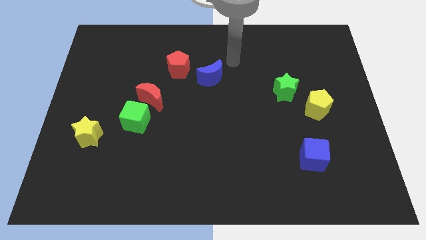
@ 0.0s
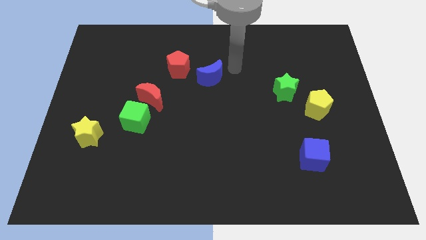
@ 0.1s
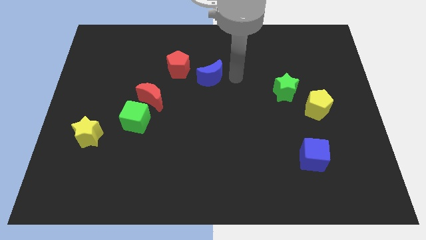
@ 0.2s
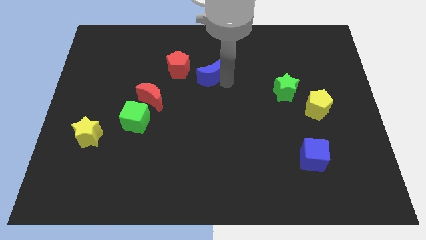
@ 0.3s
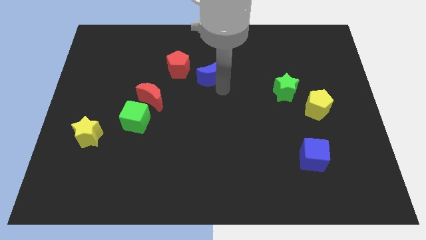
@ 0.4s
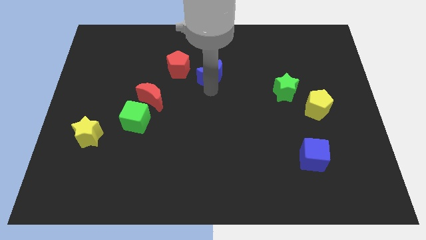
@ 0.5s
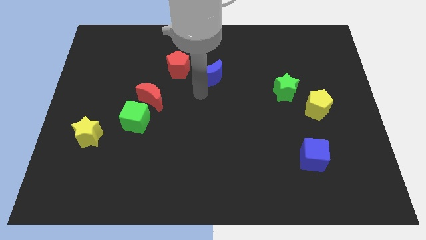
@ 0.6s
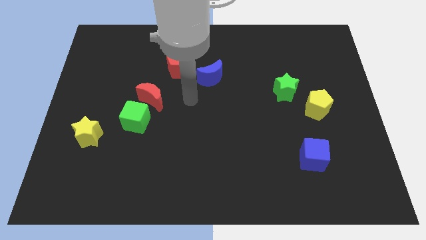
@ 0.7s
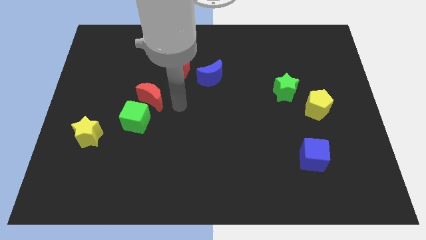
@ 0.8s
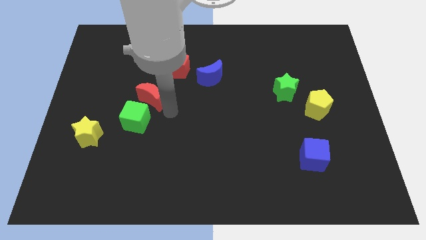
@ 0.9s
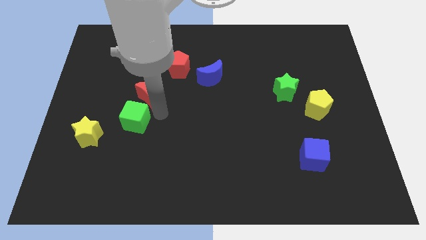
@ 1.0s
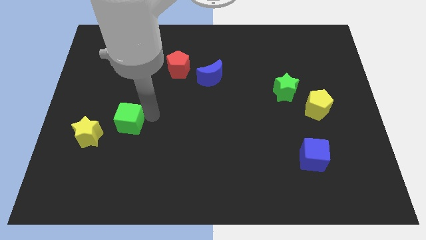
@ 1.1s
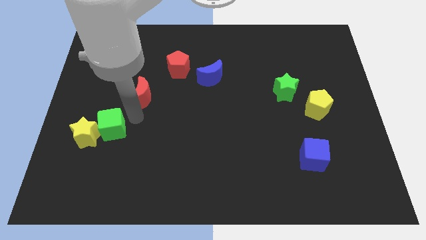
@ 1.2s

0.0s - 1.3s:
move the red moon away from the green cube

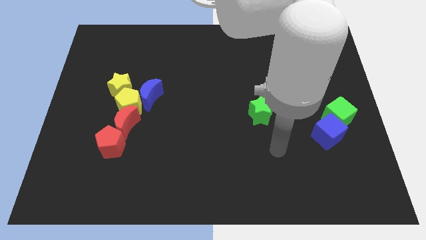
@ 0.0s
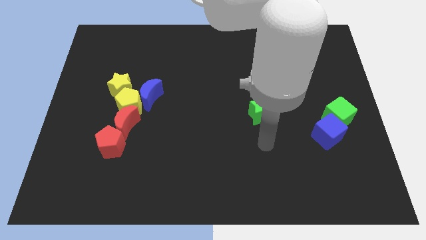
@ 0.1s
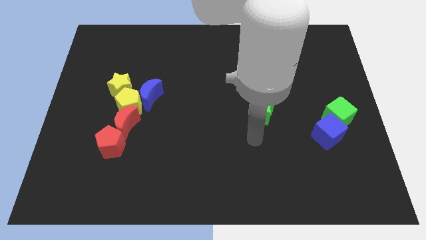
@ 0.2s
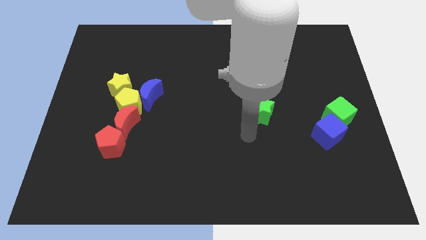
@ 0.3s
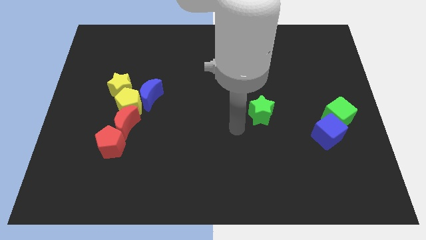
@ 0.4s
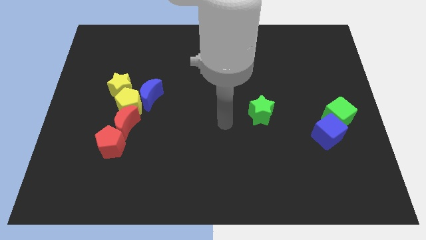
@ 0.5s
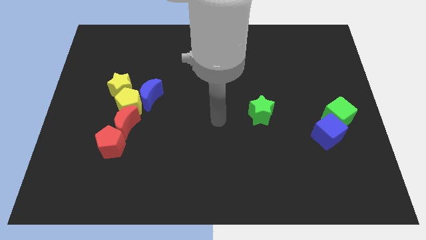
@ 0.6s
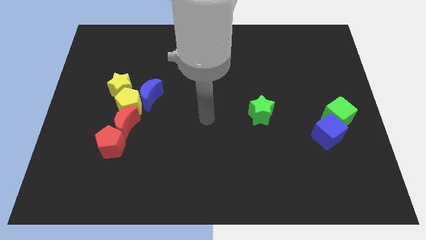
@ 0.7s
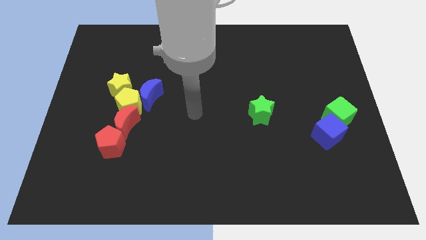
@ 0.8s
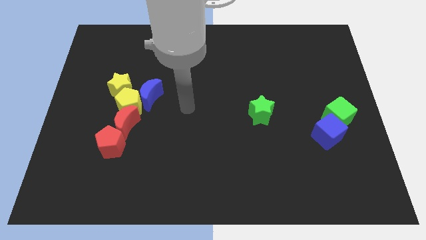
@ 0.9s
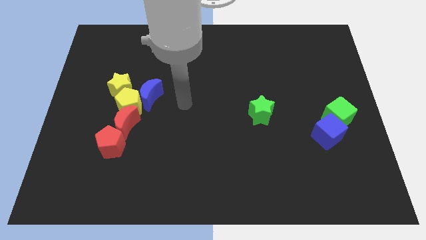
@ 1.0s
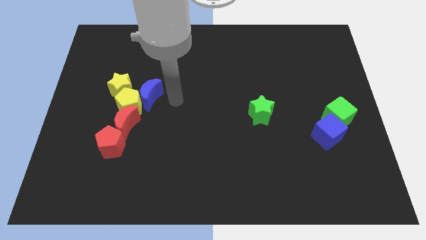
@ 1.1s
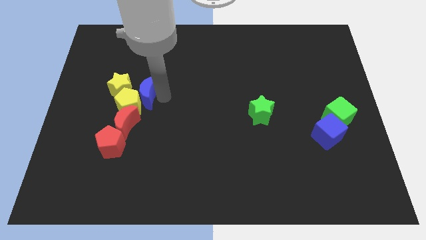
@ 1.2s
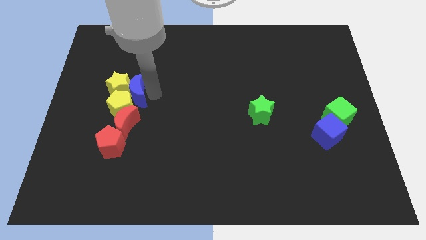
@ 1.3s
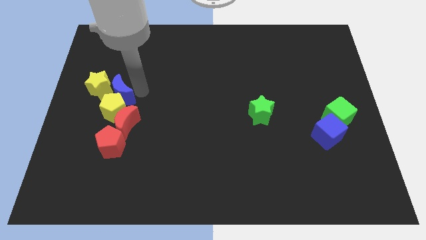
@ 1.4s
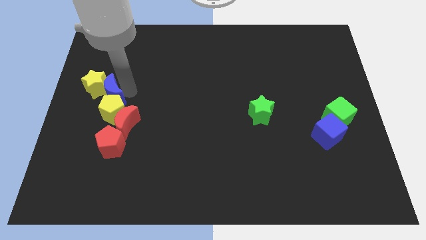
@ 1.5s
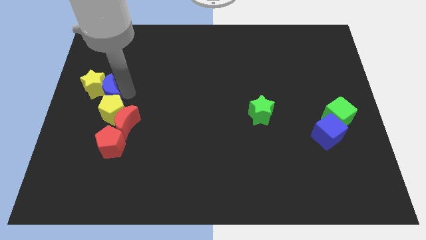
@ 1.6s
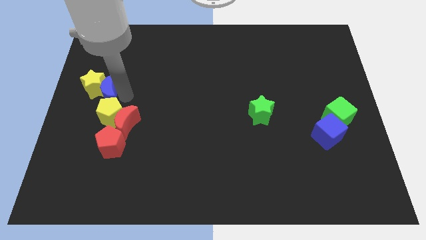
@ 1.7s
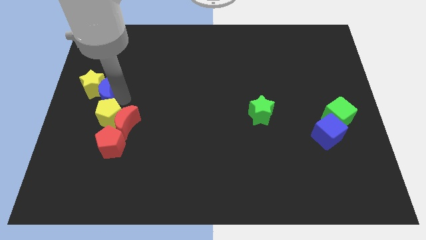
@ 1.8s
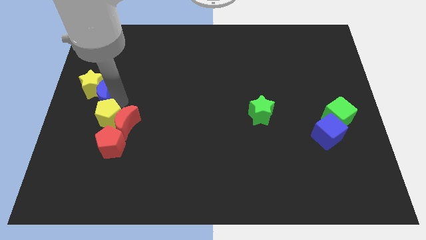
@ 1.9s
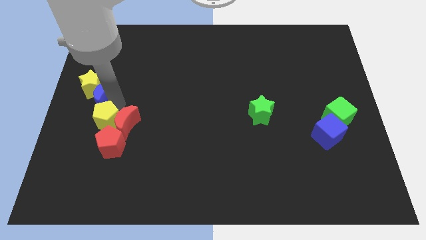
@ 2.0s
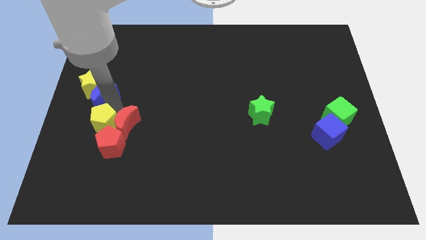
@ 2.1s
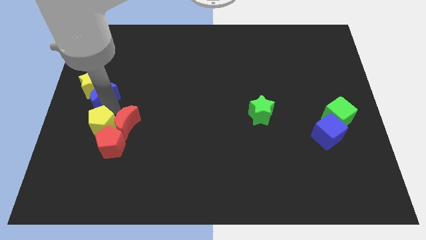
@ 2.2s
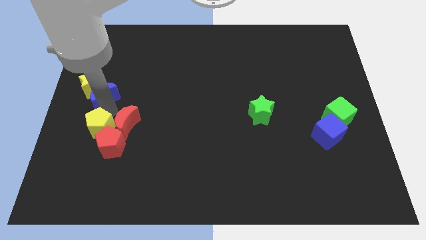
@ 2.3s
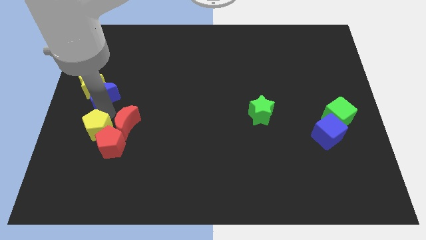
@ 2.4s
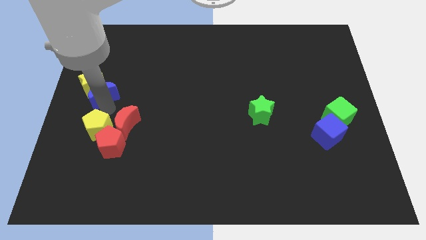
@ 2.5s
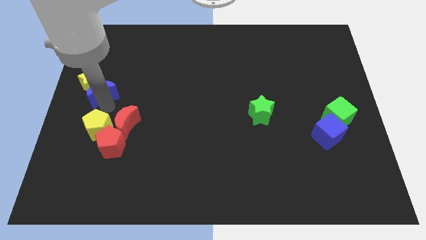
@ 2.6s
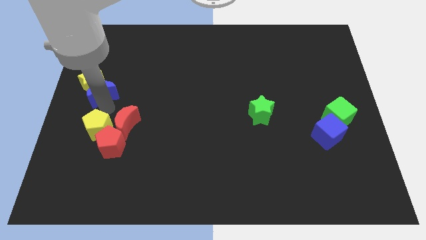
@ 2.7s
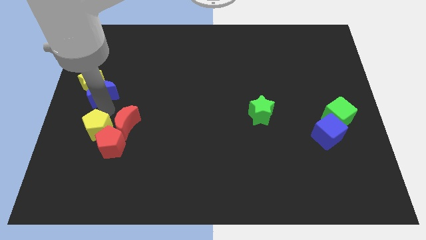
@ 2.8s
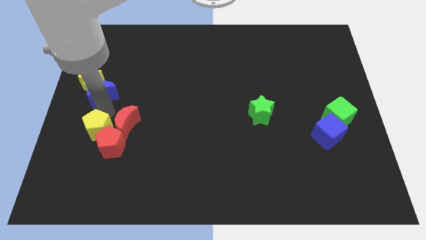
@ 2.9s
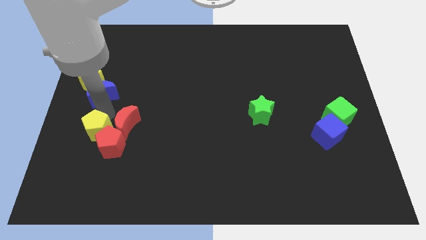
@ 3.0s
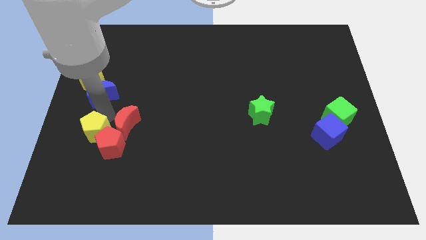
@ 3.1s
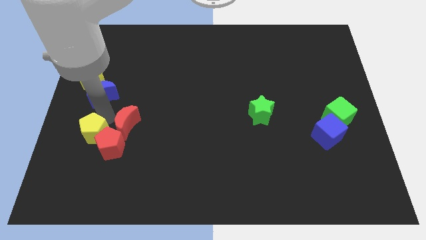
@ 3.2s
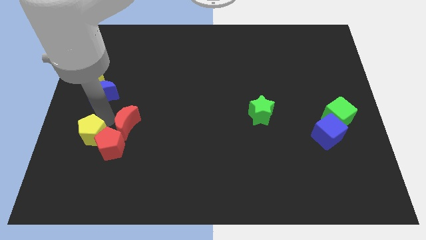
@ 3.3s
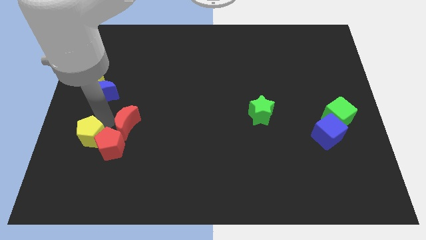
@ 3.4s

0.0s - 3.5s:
move the yellow pentagon away from the red moon, blue moon, and yellow star

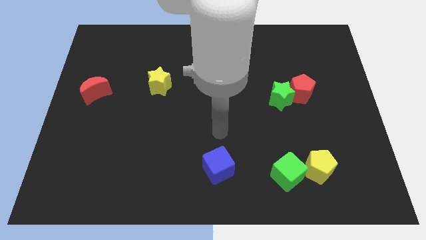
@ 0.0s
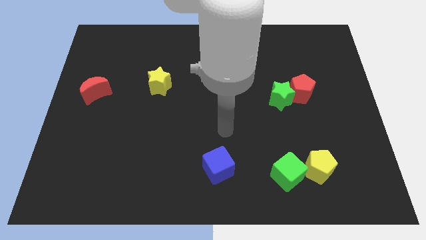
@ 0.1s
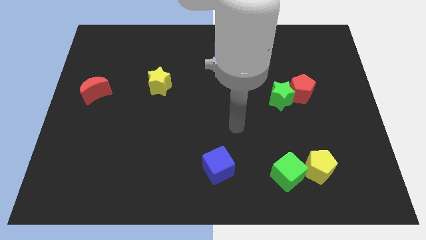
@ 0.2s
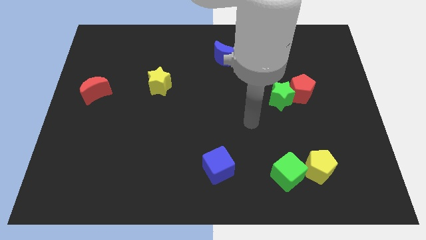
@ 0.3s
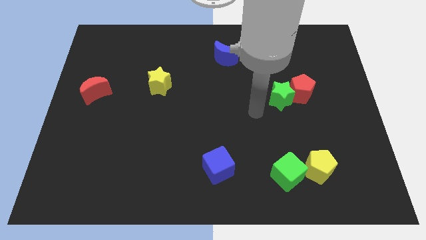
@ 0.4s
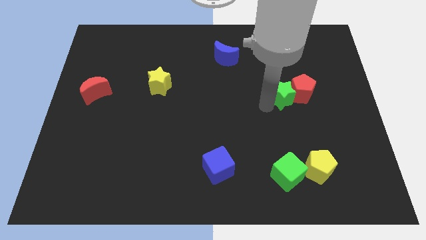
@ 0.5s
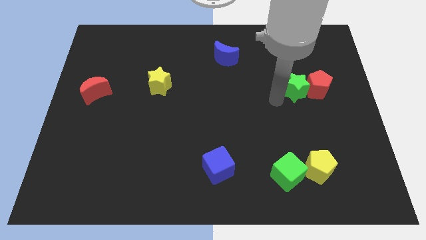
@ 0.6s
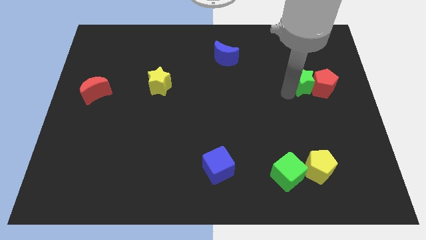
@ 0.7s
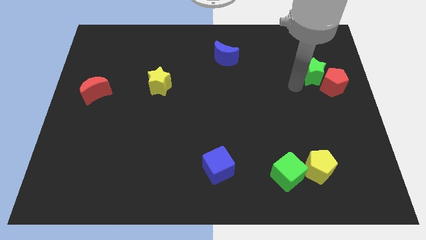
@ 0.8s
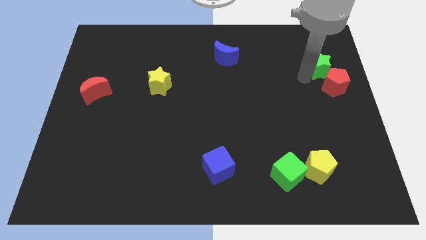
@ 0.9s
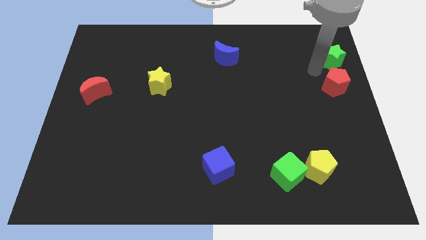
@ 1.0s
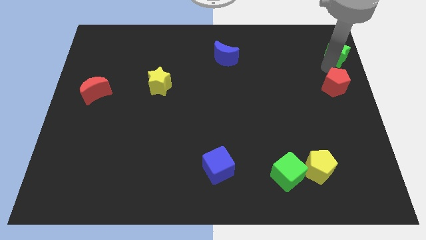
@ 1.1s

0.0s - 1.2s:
pull the red pentagon apart from the green star

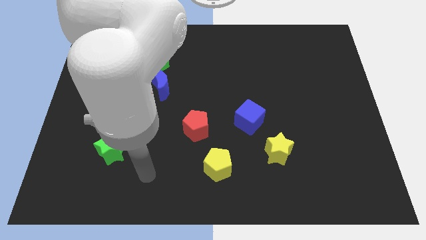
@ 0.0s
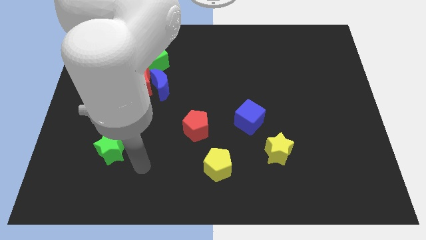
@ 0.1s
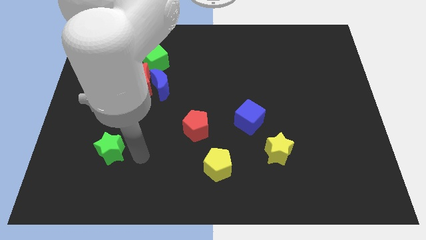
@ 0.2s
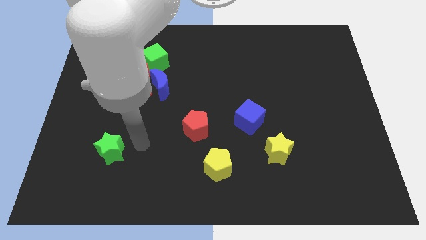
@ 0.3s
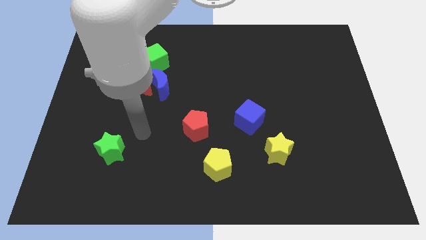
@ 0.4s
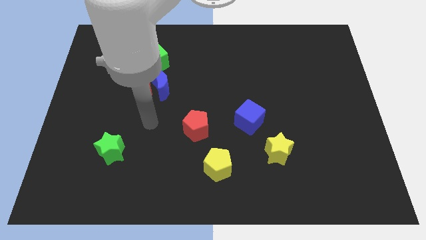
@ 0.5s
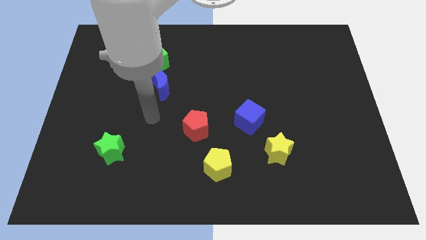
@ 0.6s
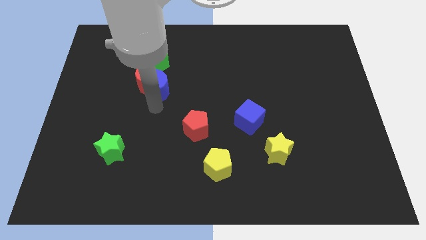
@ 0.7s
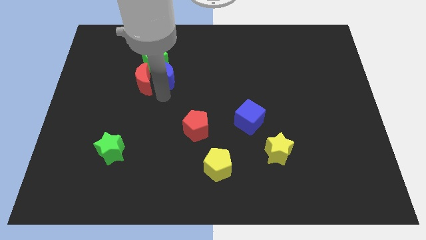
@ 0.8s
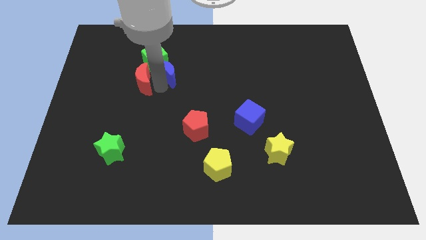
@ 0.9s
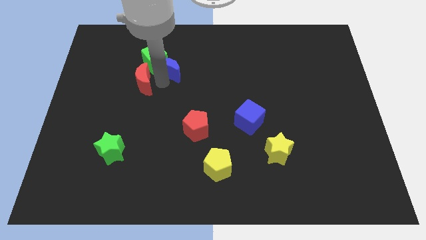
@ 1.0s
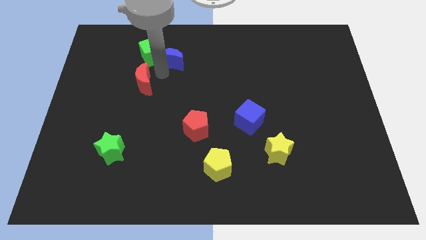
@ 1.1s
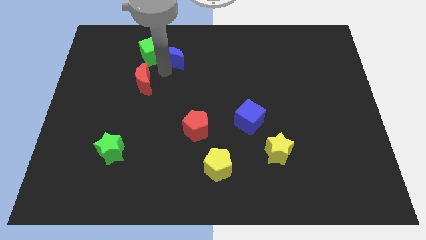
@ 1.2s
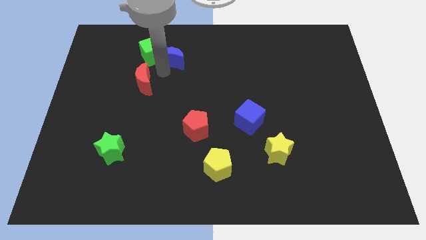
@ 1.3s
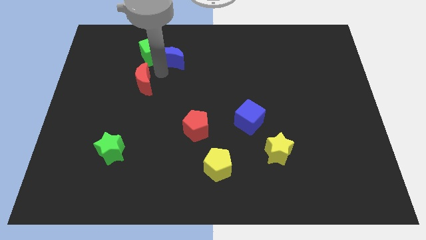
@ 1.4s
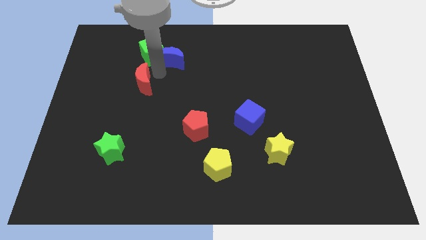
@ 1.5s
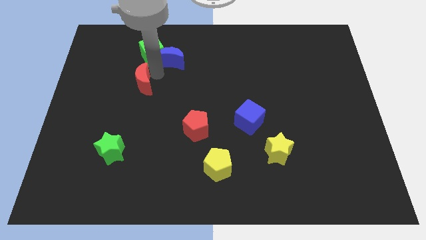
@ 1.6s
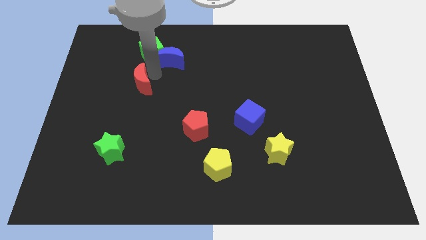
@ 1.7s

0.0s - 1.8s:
separate the red moon from the blue moon and green cube

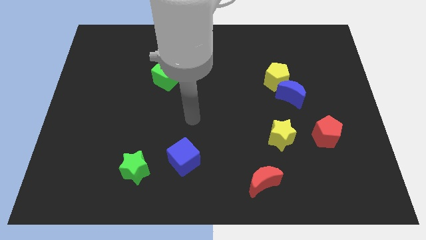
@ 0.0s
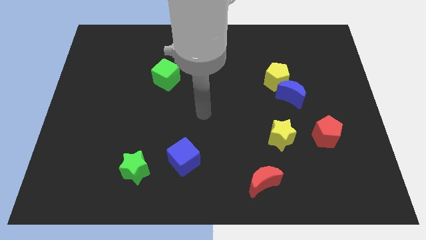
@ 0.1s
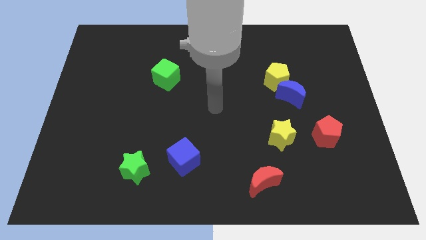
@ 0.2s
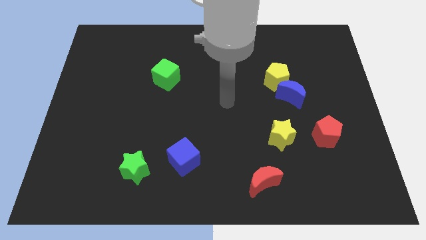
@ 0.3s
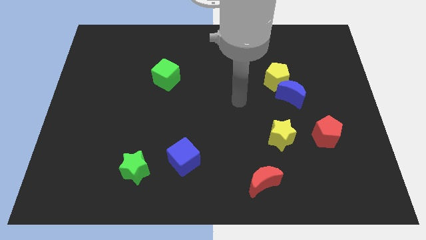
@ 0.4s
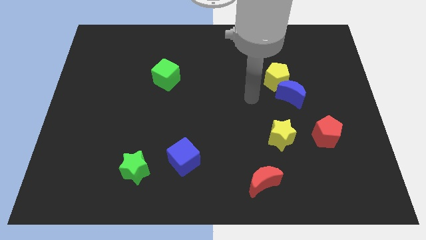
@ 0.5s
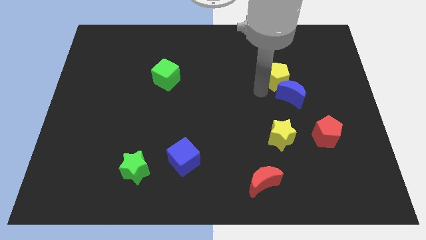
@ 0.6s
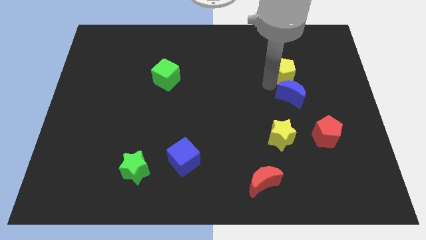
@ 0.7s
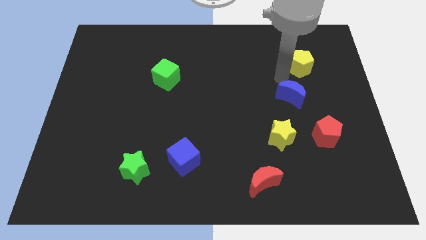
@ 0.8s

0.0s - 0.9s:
move the blue moon away from the yellow pentagon

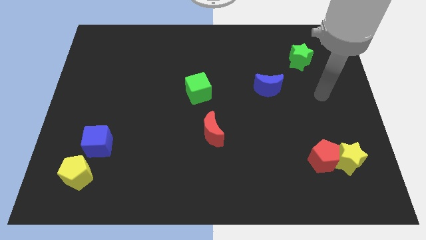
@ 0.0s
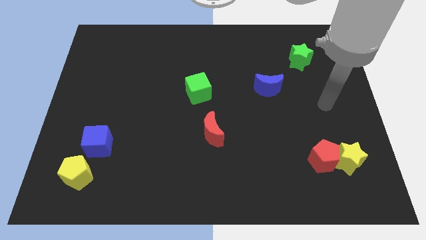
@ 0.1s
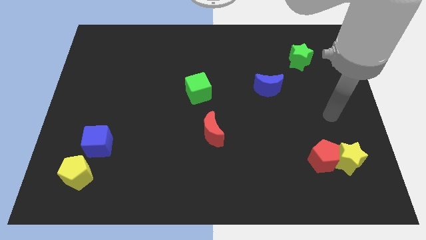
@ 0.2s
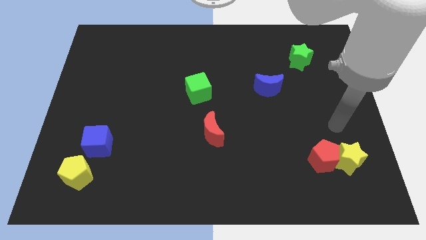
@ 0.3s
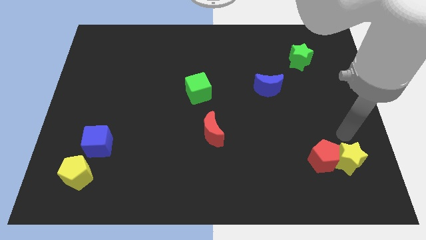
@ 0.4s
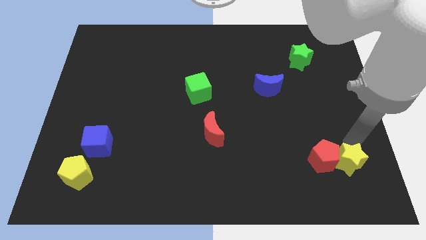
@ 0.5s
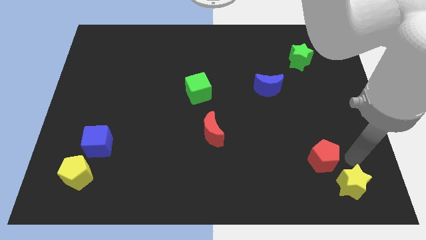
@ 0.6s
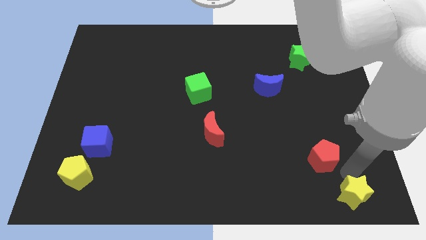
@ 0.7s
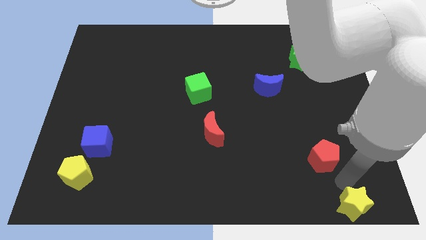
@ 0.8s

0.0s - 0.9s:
separate the red pentagon from the yellow star
